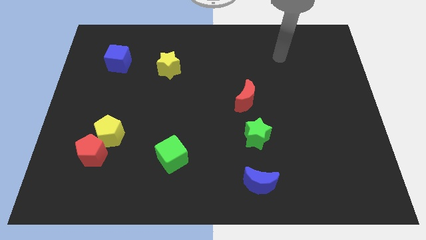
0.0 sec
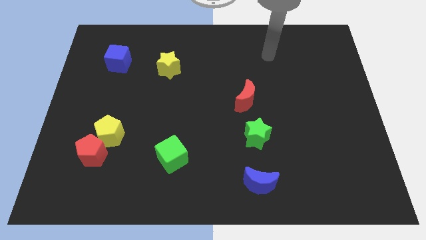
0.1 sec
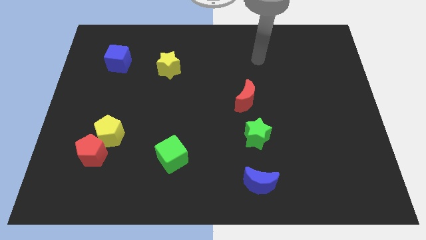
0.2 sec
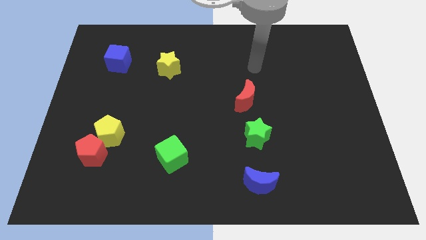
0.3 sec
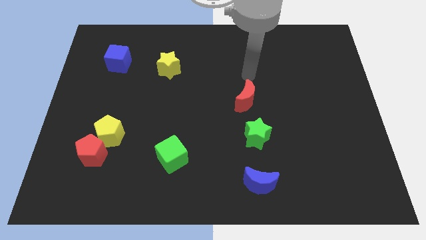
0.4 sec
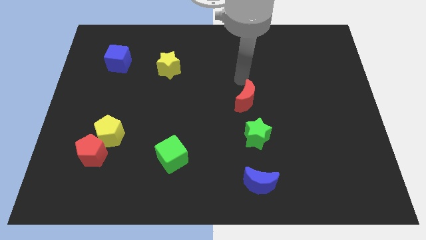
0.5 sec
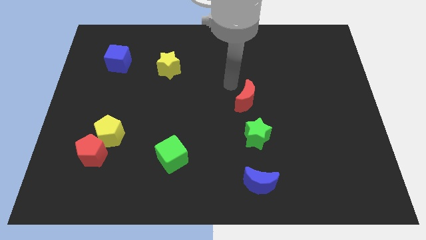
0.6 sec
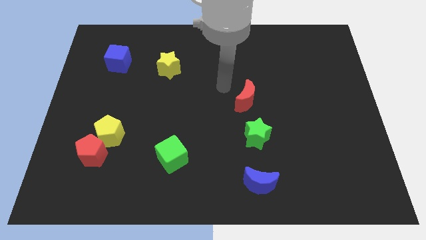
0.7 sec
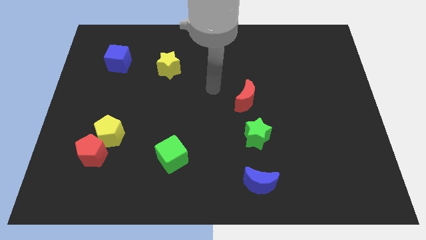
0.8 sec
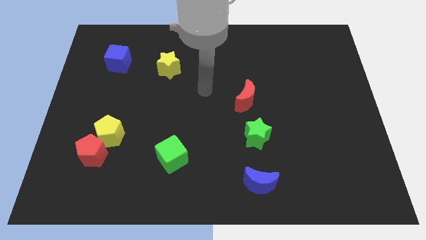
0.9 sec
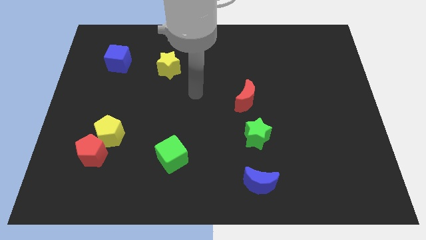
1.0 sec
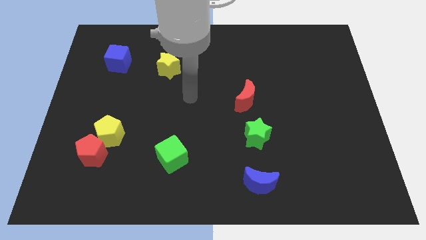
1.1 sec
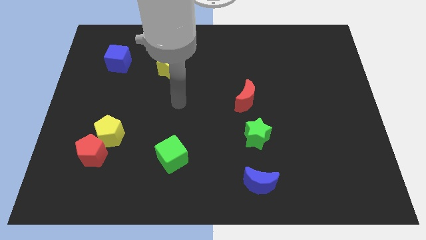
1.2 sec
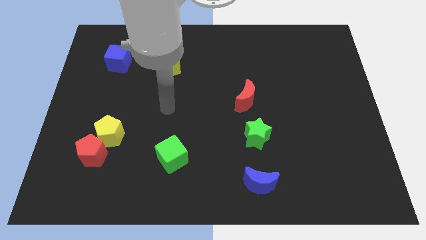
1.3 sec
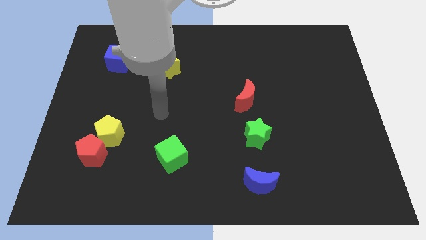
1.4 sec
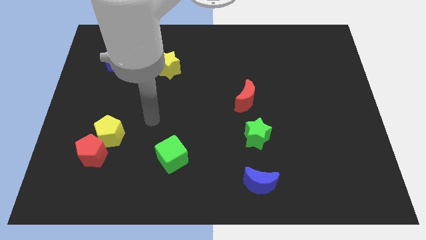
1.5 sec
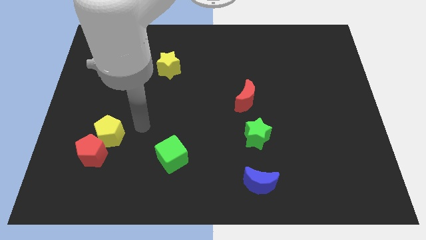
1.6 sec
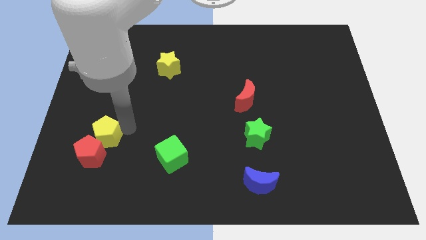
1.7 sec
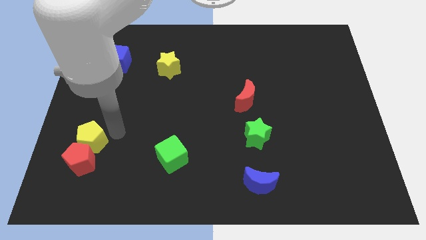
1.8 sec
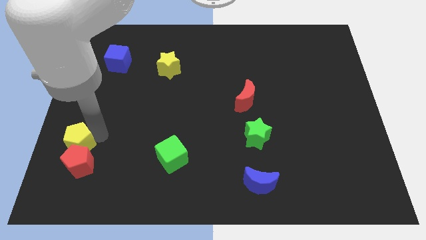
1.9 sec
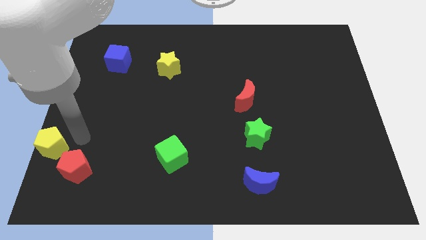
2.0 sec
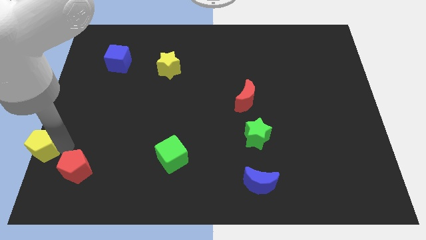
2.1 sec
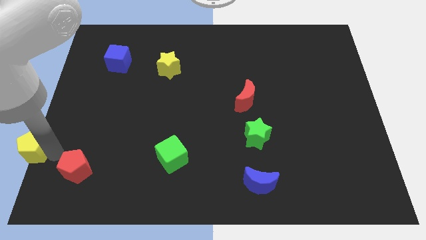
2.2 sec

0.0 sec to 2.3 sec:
pull the red pentagon apart from the yellow pentagon

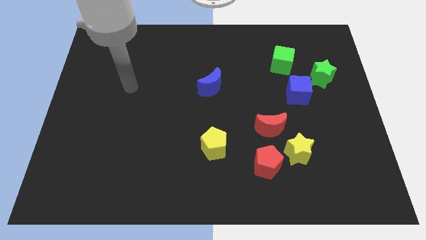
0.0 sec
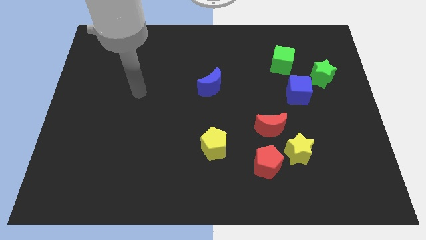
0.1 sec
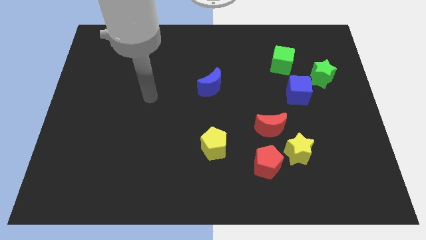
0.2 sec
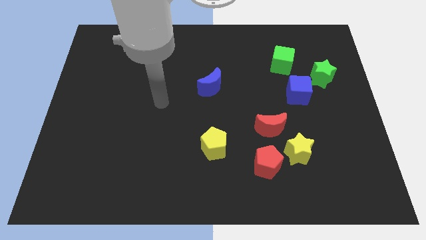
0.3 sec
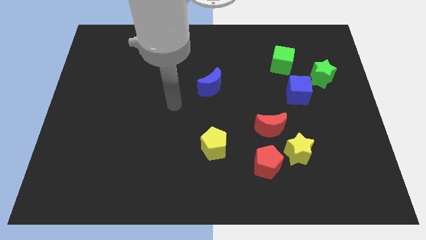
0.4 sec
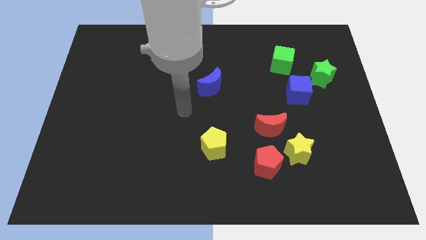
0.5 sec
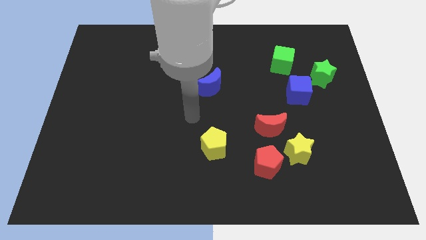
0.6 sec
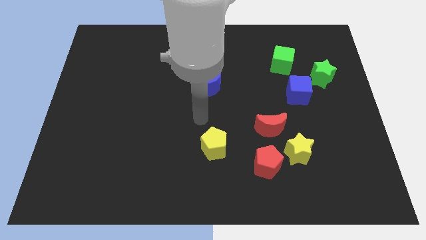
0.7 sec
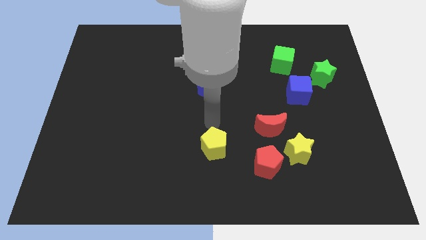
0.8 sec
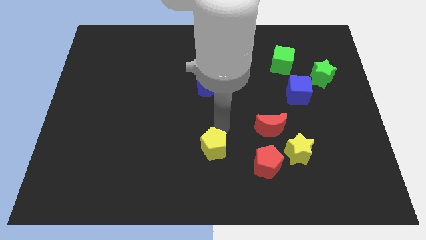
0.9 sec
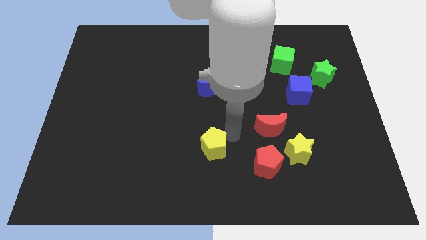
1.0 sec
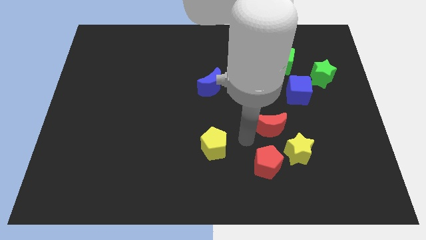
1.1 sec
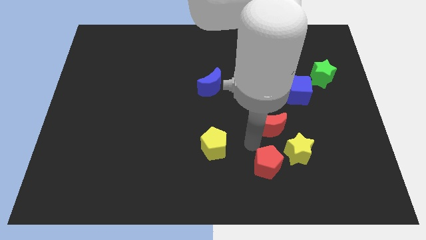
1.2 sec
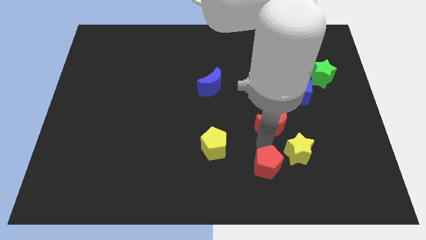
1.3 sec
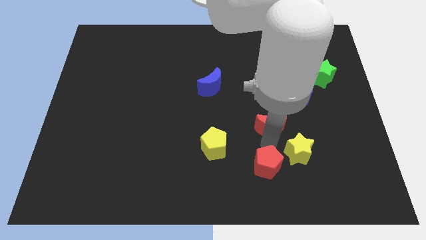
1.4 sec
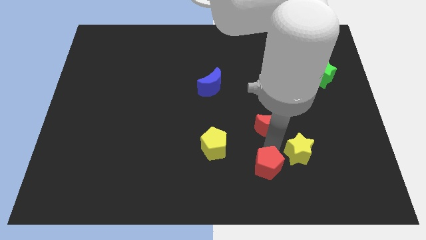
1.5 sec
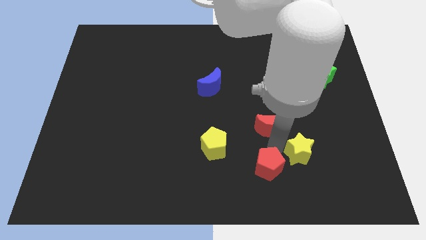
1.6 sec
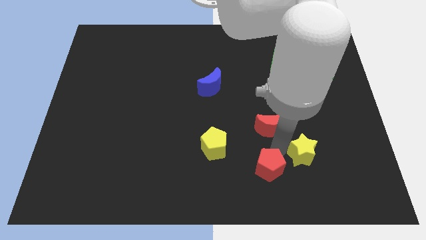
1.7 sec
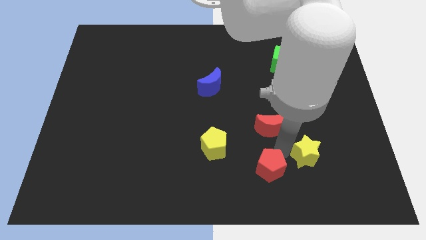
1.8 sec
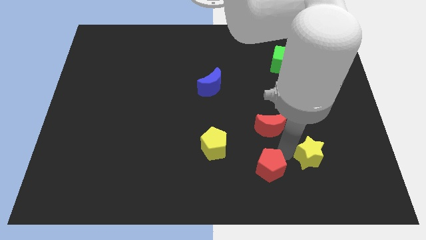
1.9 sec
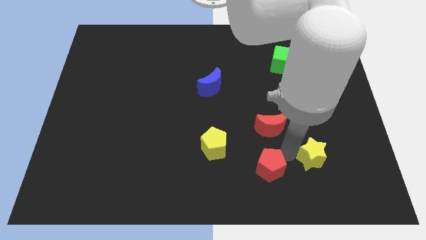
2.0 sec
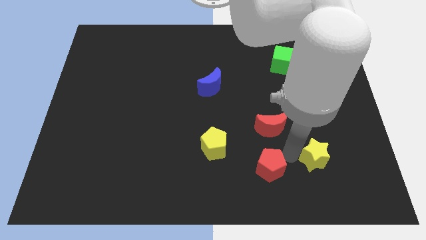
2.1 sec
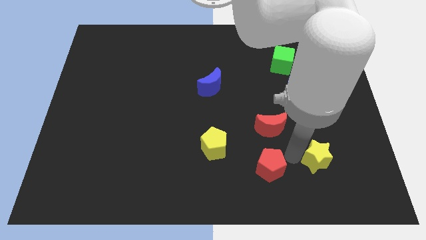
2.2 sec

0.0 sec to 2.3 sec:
move the yellow star away from the red pentagon and red moon

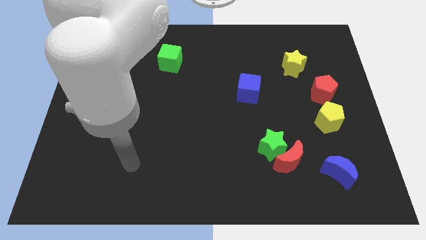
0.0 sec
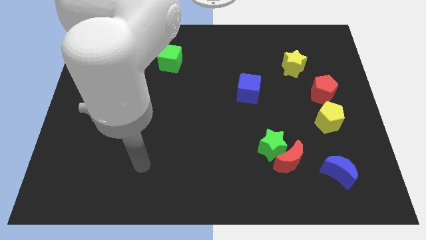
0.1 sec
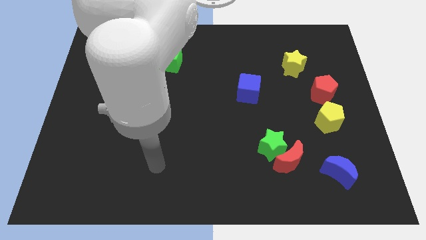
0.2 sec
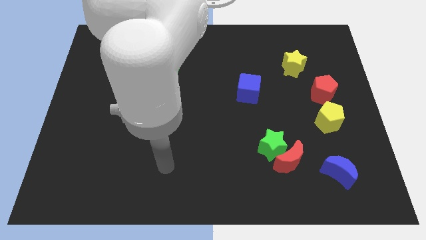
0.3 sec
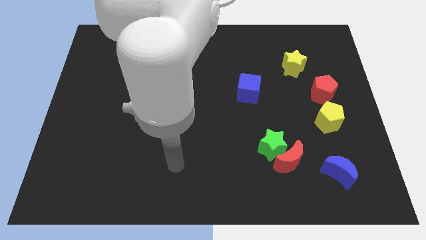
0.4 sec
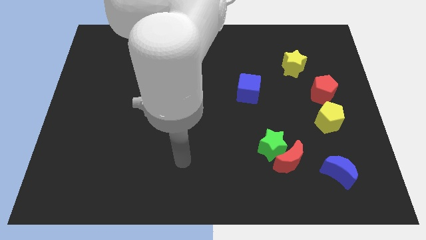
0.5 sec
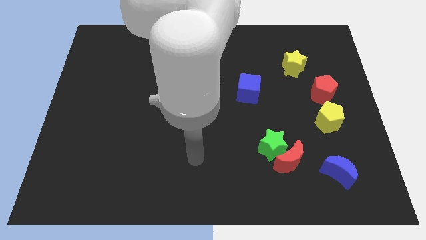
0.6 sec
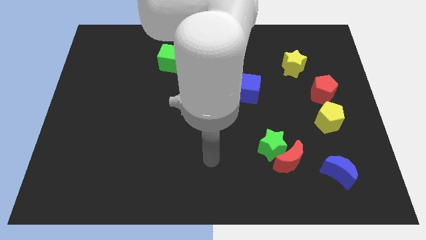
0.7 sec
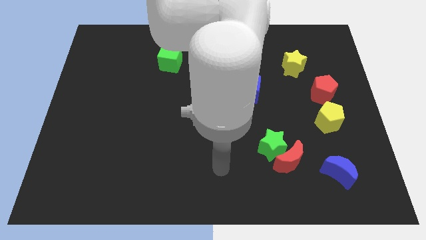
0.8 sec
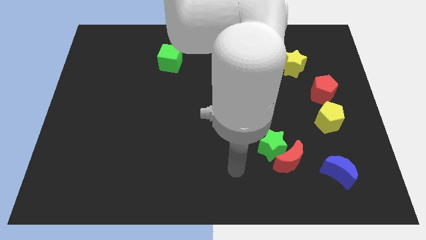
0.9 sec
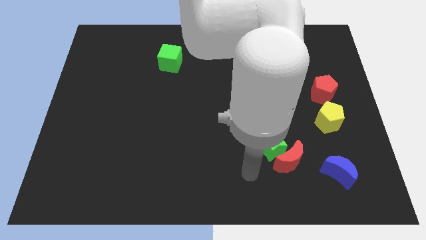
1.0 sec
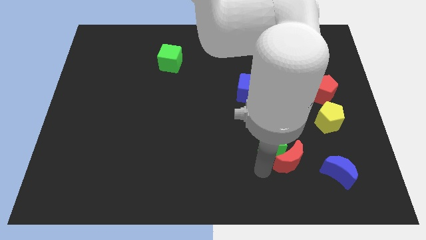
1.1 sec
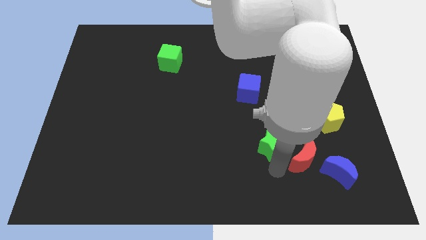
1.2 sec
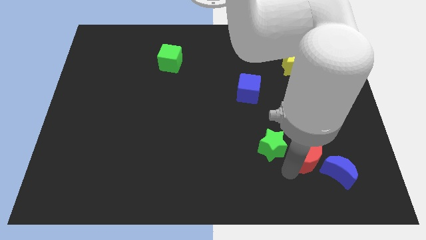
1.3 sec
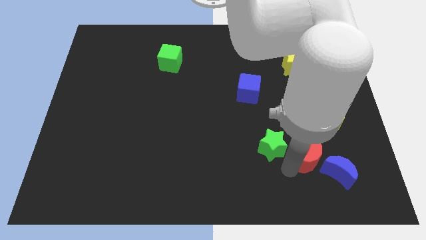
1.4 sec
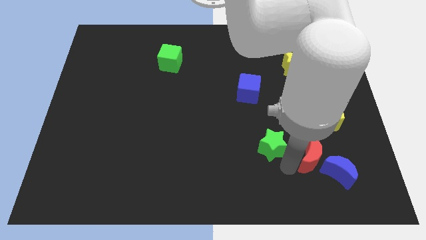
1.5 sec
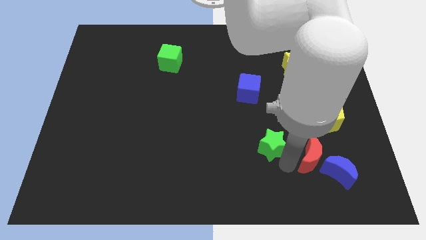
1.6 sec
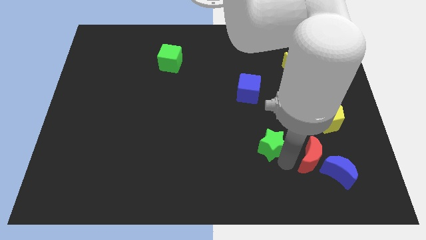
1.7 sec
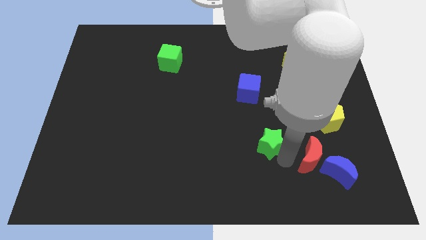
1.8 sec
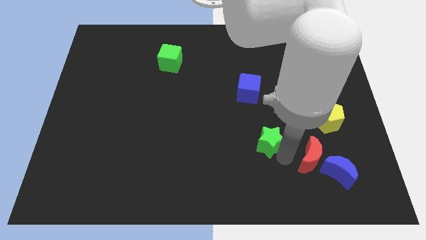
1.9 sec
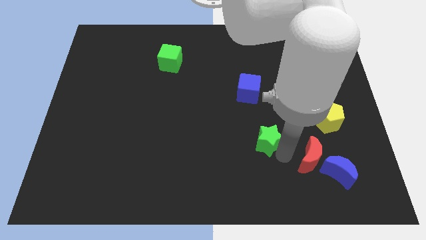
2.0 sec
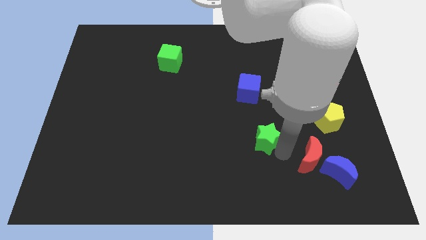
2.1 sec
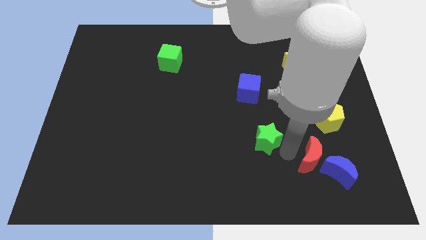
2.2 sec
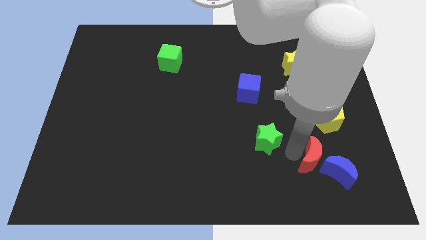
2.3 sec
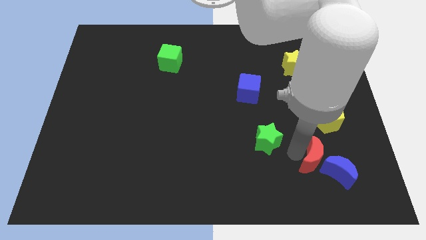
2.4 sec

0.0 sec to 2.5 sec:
move the green star away from the red moon

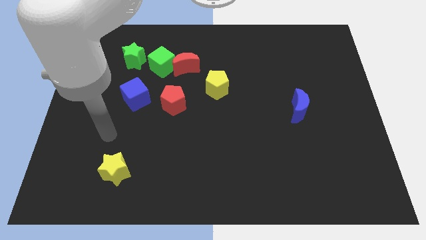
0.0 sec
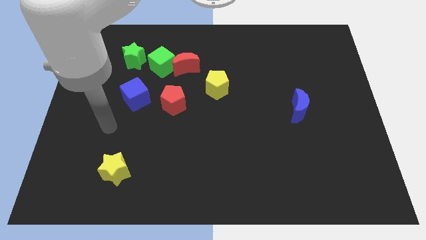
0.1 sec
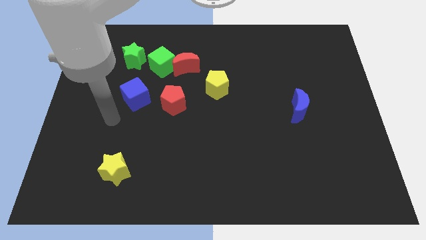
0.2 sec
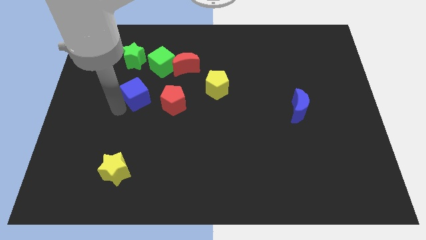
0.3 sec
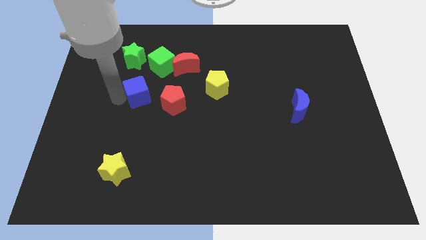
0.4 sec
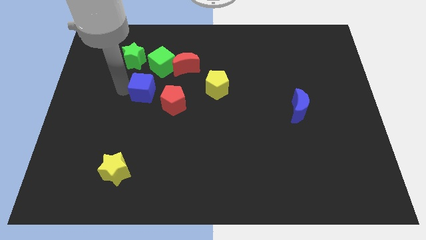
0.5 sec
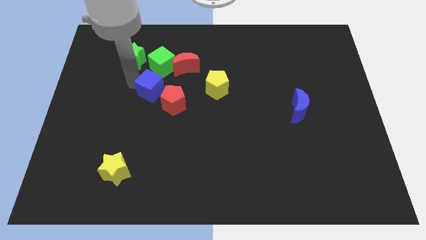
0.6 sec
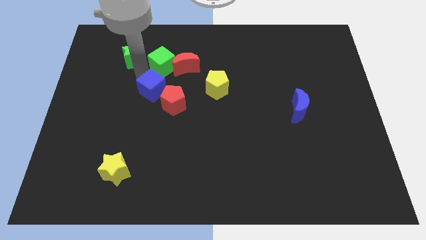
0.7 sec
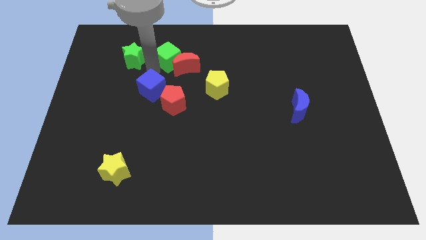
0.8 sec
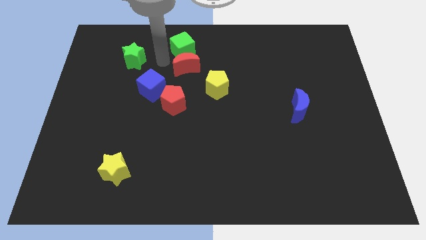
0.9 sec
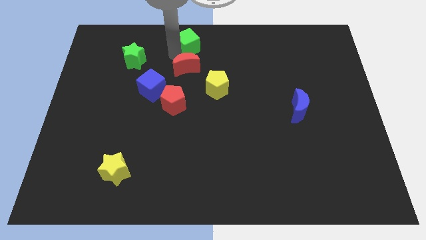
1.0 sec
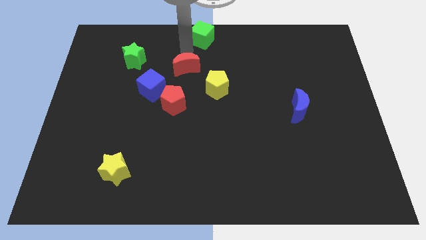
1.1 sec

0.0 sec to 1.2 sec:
separate the red moon from the green cube

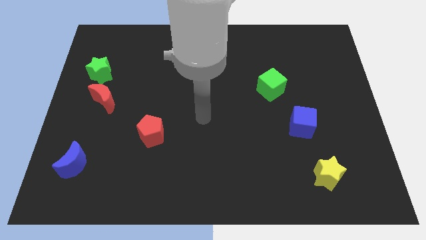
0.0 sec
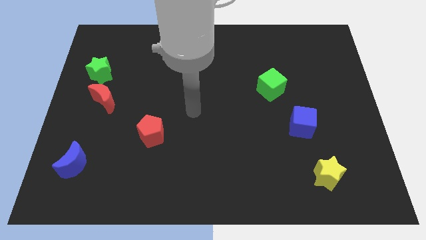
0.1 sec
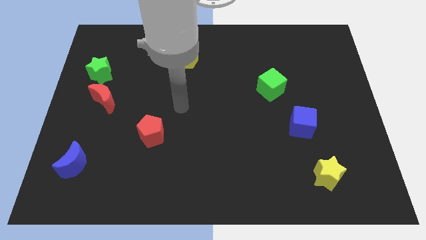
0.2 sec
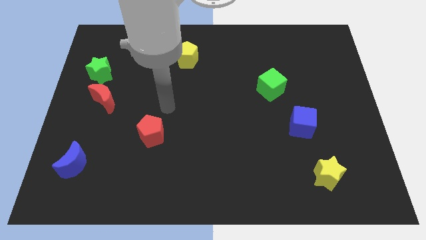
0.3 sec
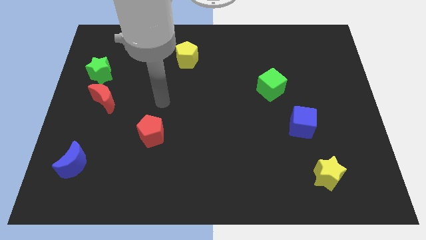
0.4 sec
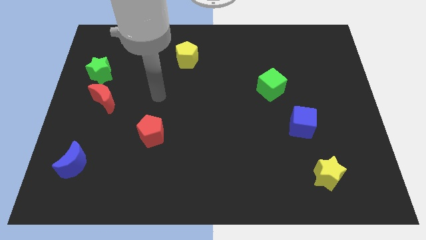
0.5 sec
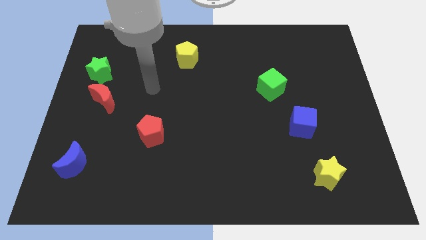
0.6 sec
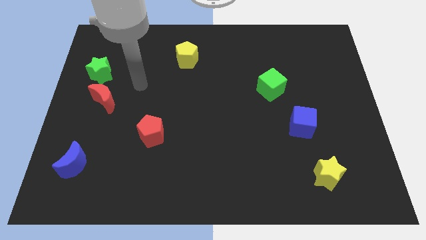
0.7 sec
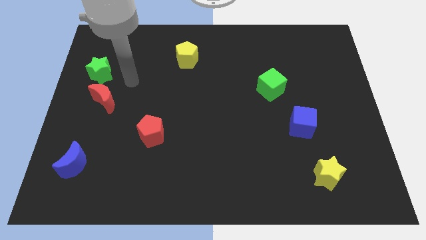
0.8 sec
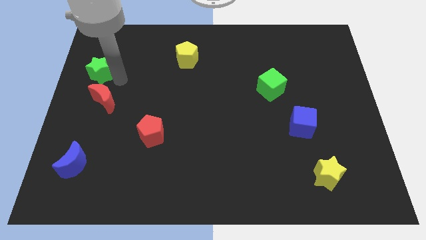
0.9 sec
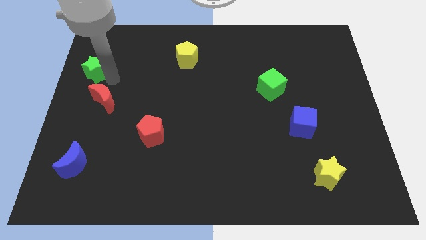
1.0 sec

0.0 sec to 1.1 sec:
separate the red moon from the green star
